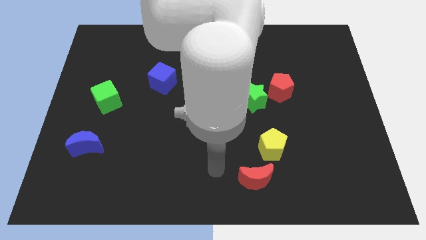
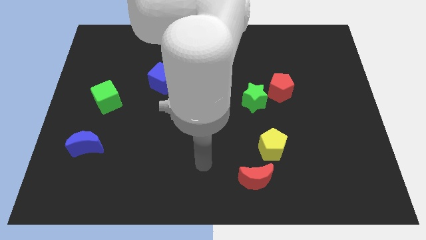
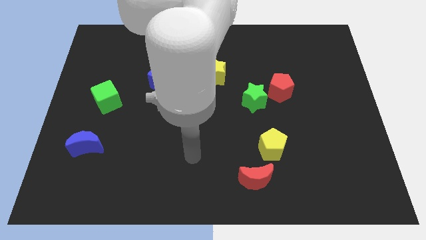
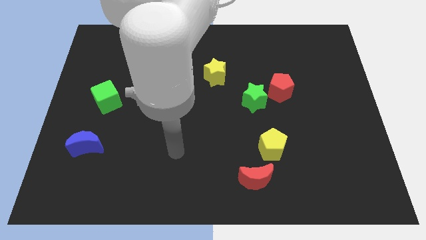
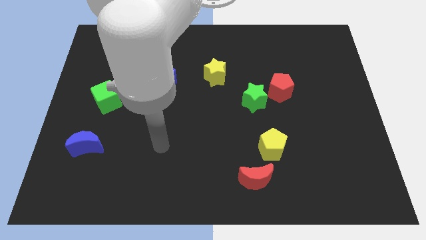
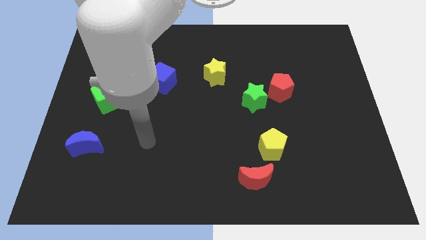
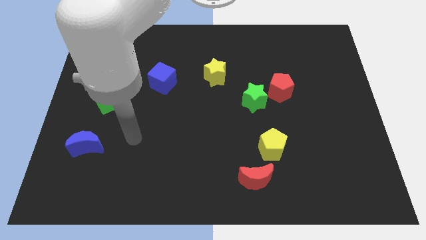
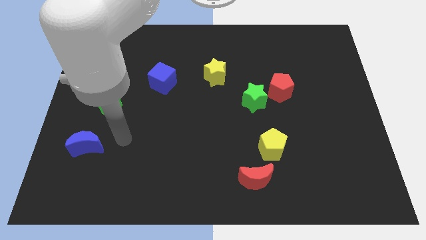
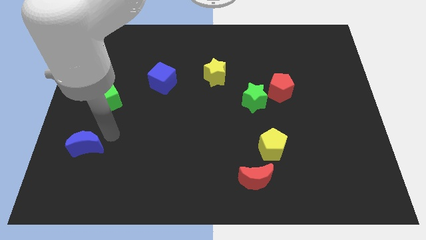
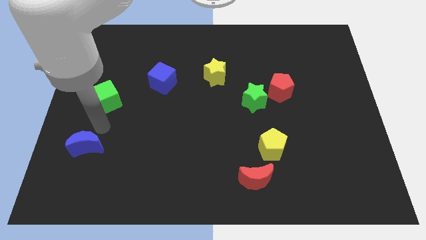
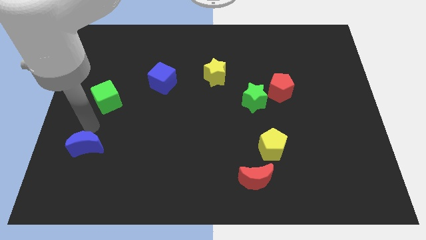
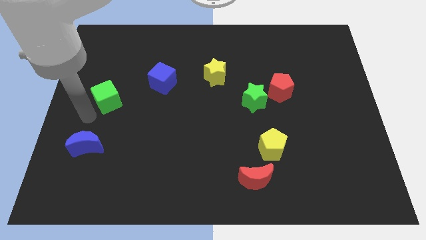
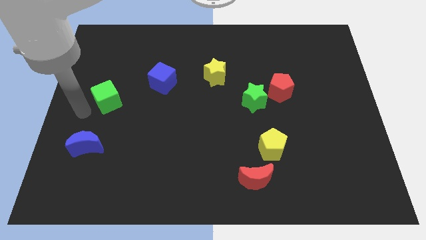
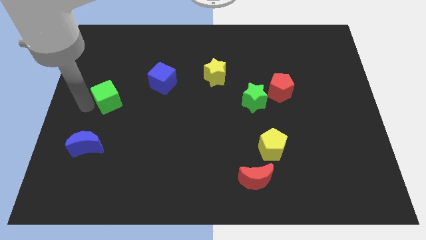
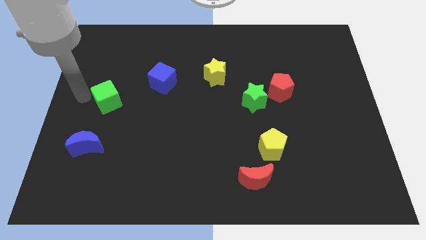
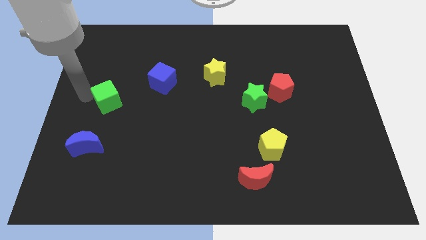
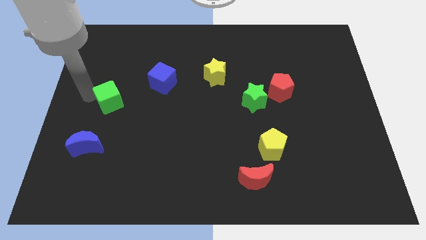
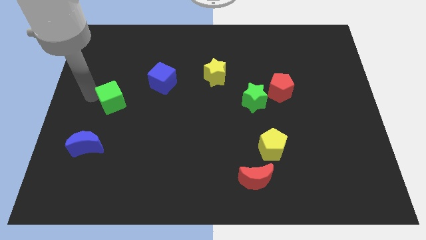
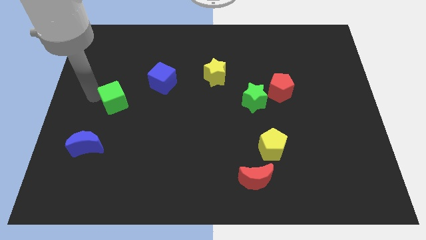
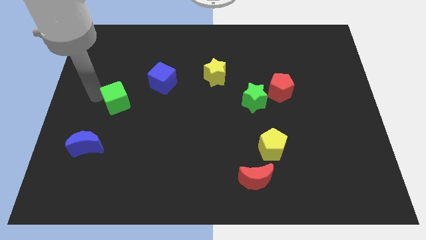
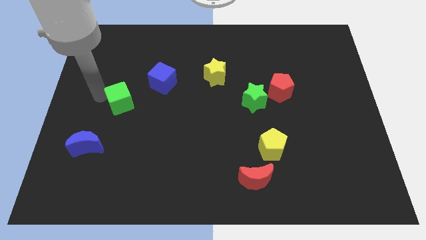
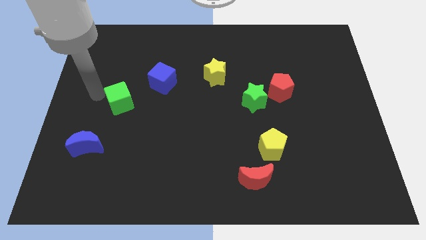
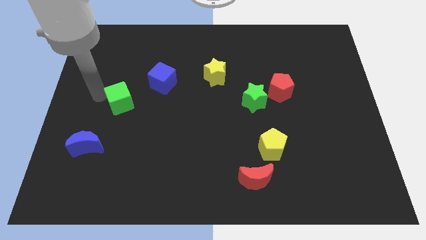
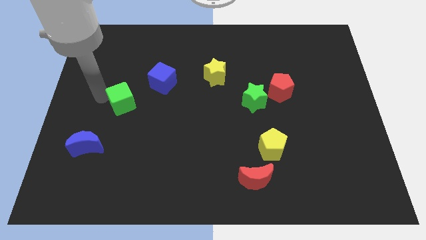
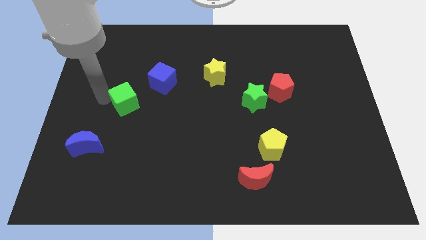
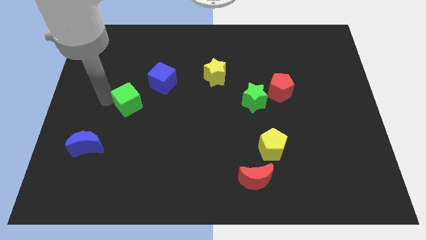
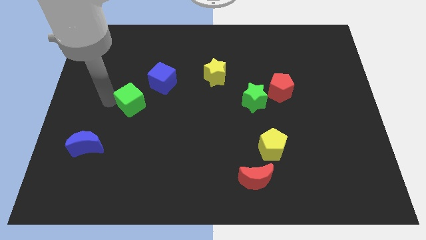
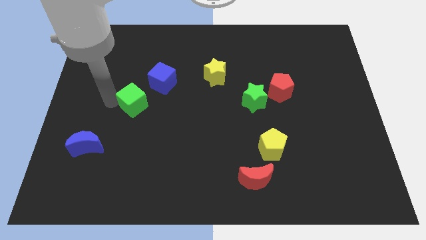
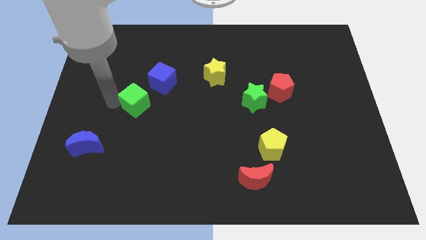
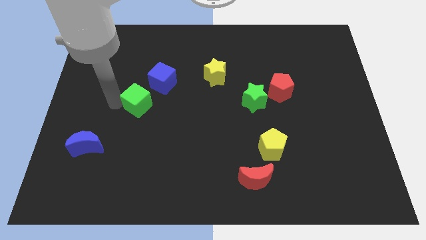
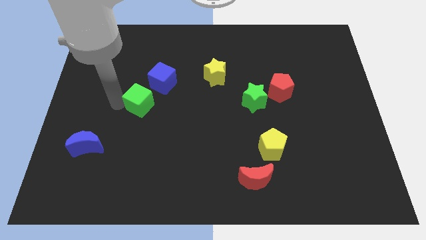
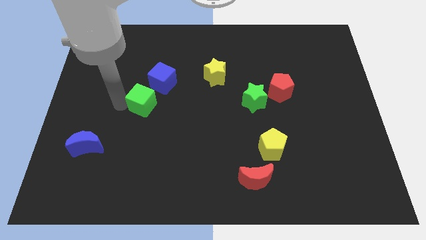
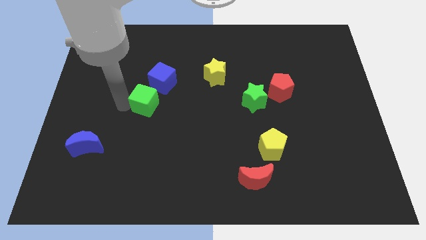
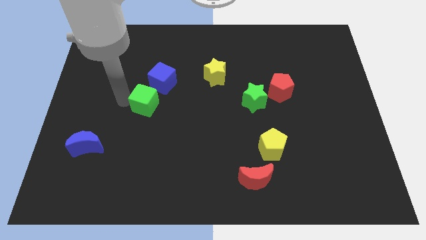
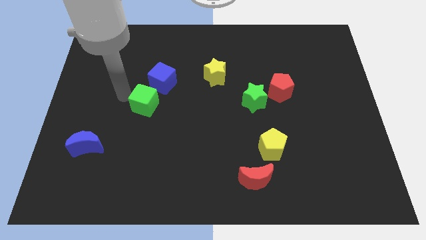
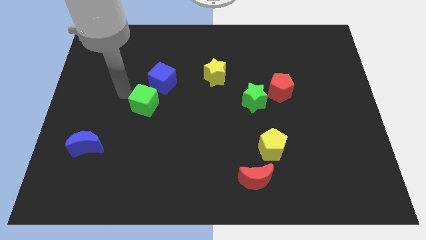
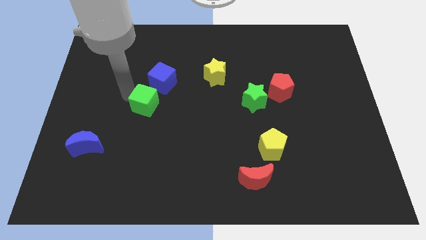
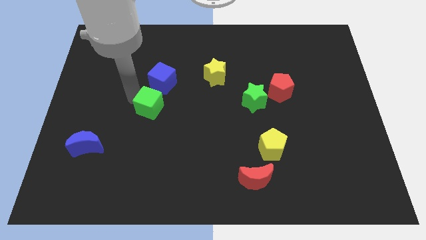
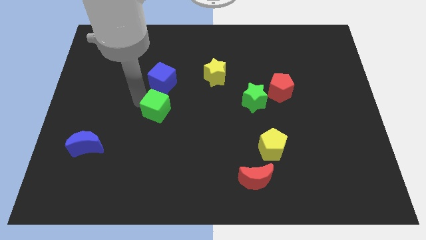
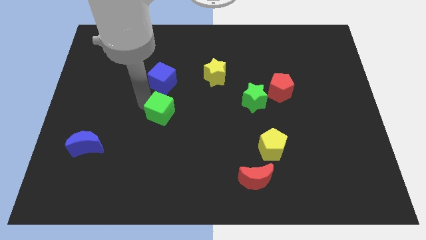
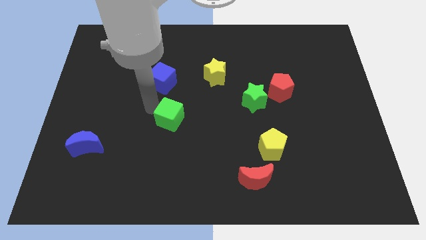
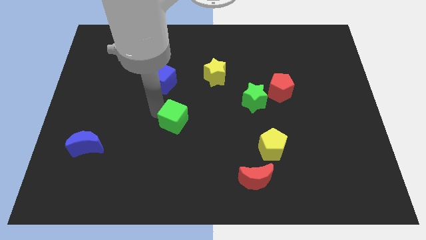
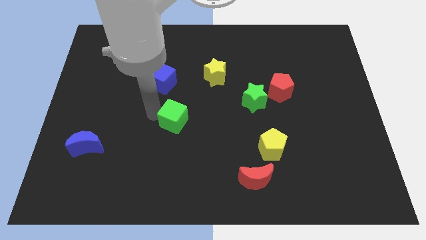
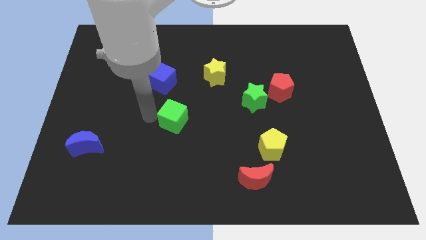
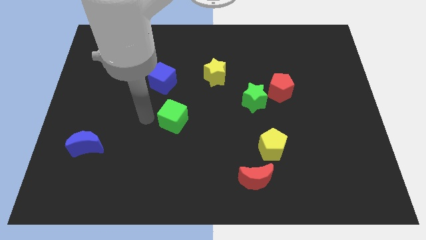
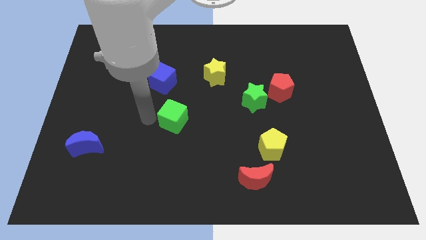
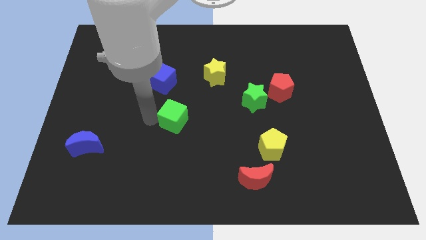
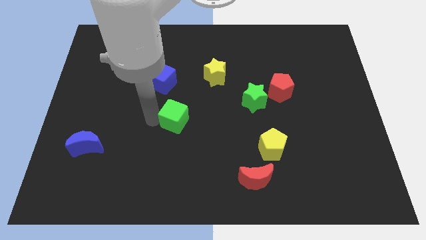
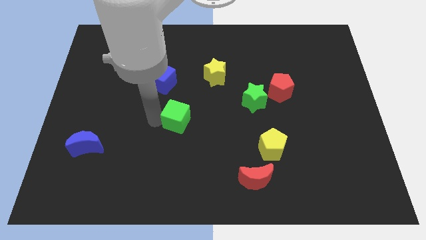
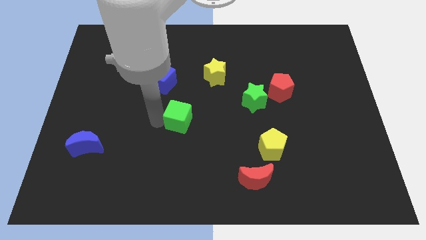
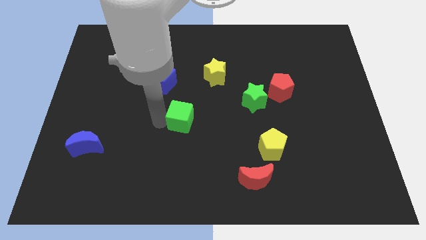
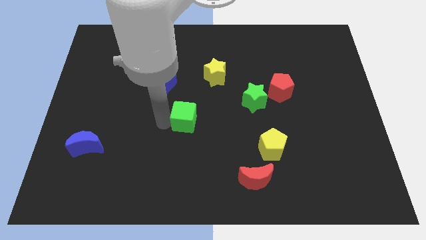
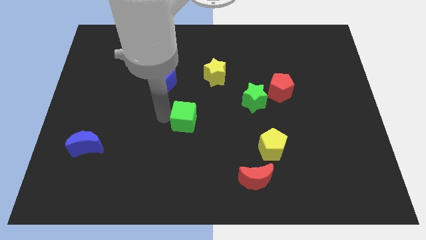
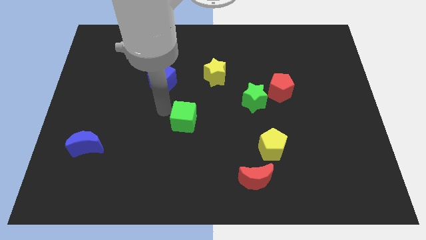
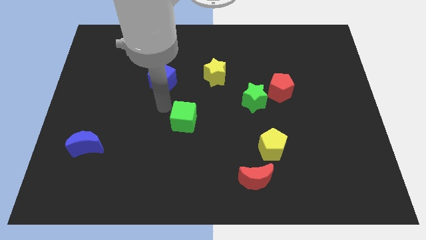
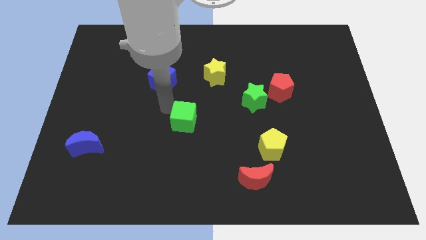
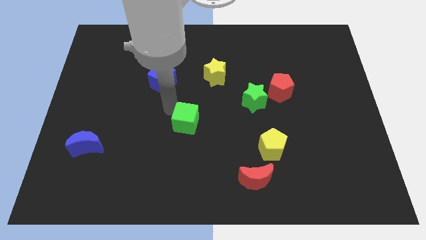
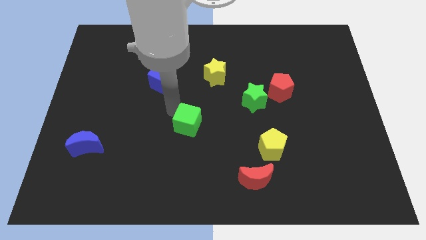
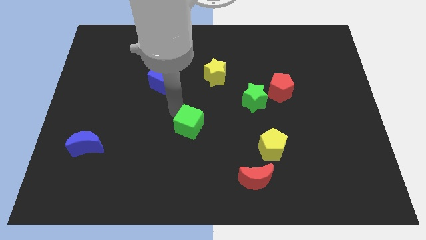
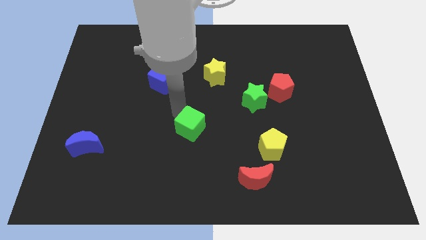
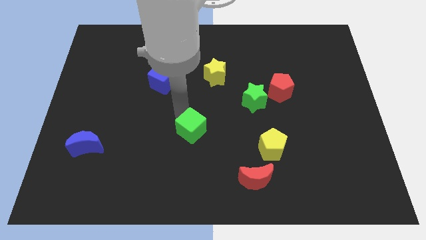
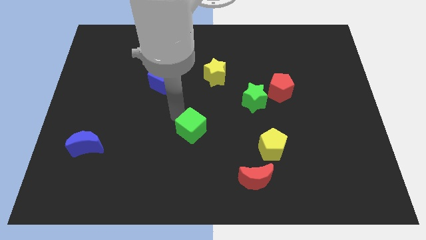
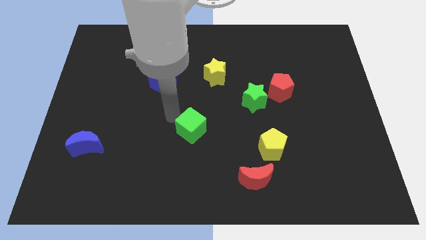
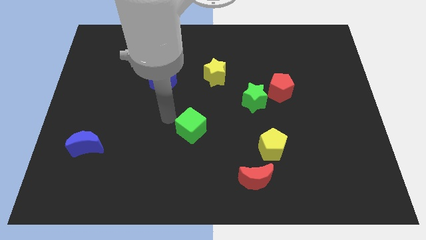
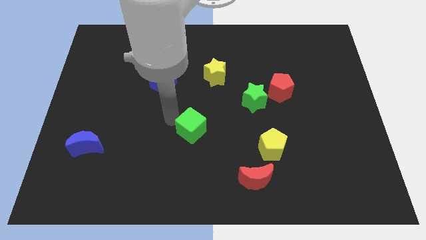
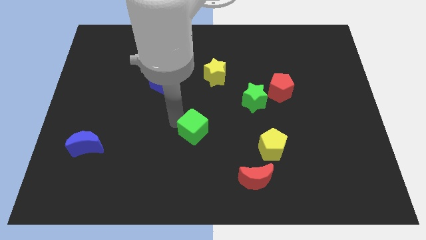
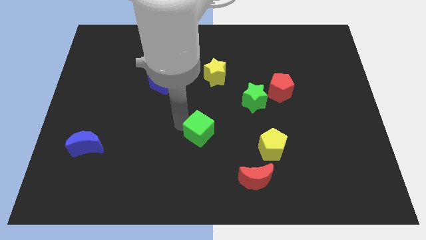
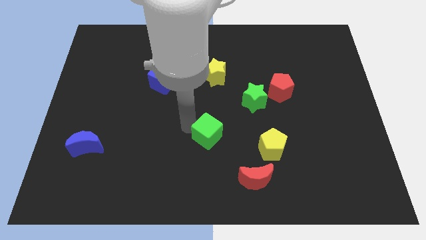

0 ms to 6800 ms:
slide the green cube to the left side of the yellow pentagon

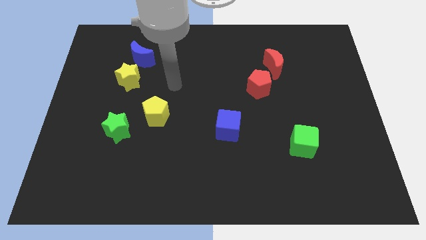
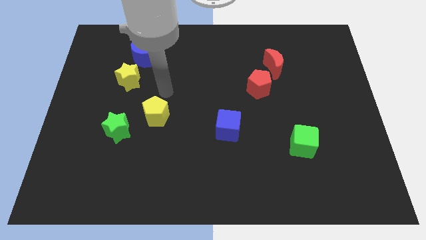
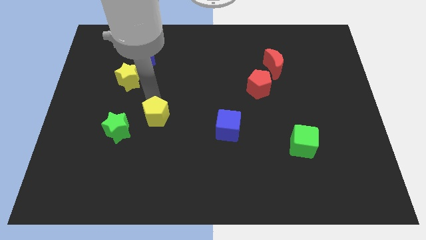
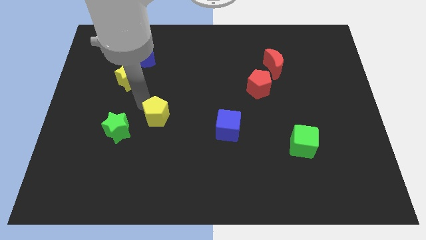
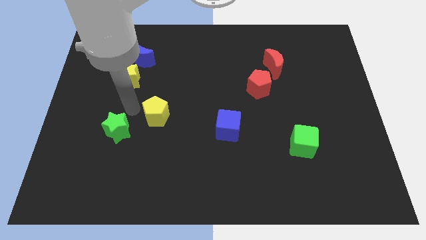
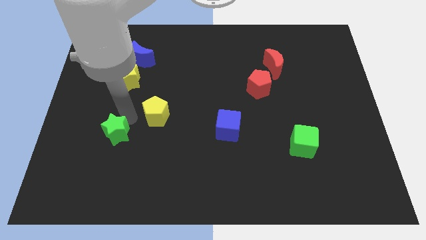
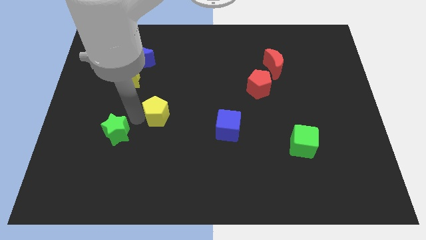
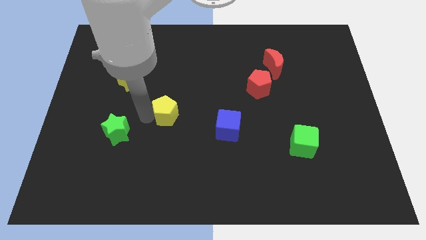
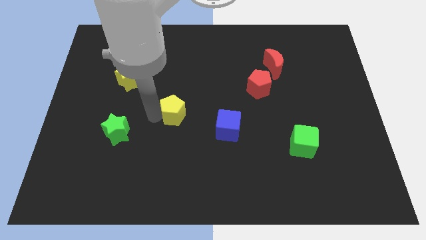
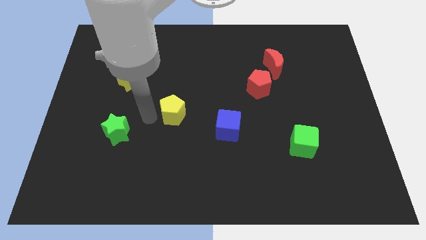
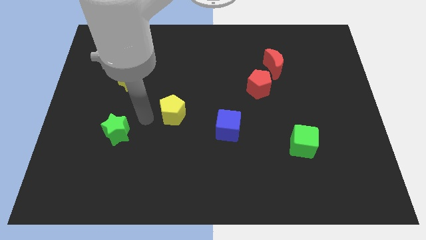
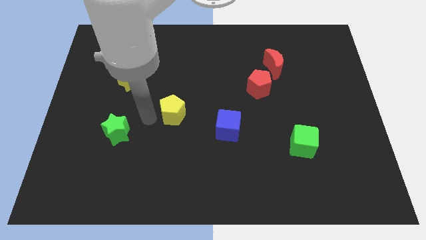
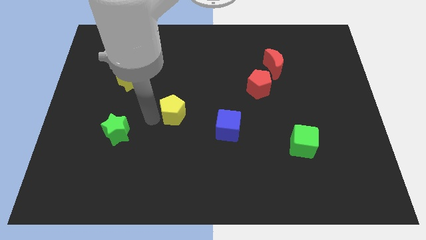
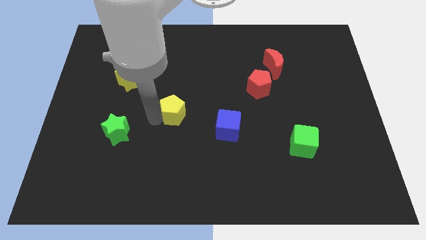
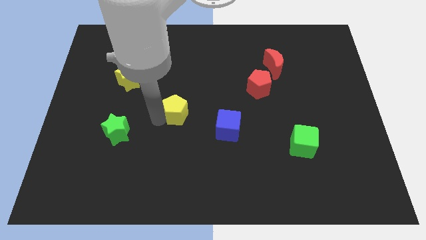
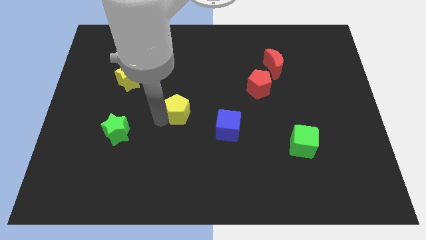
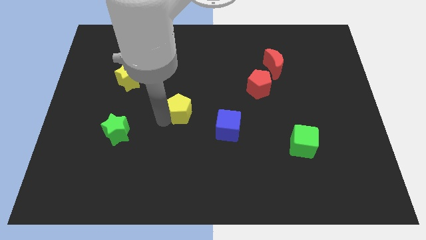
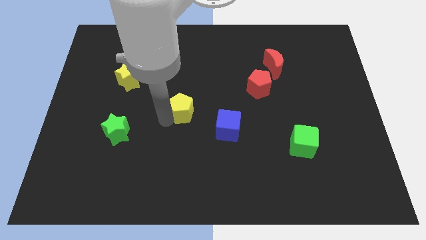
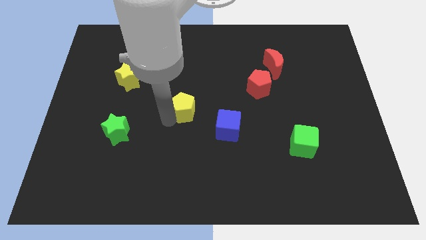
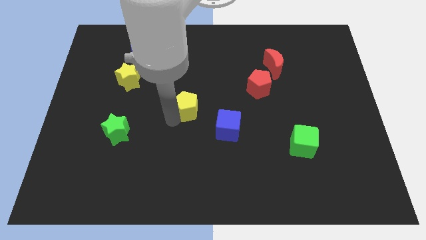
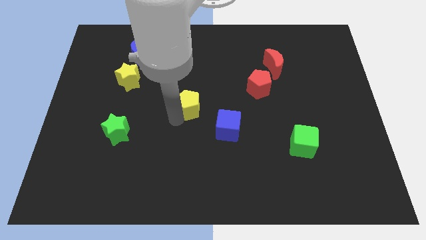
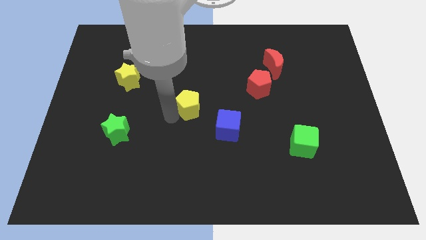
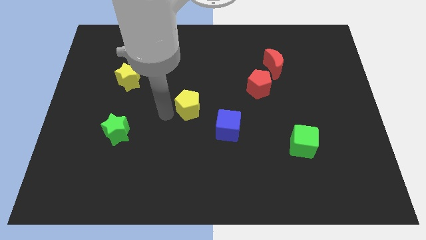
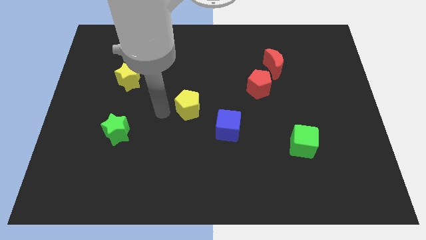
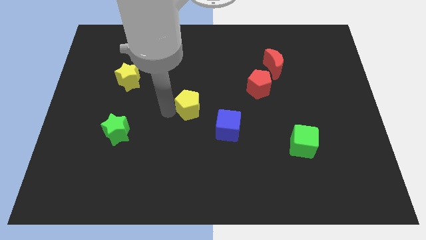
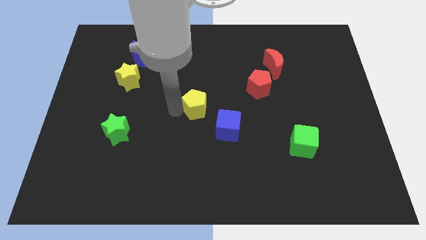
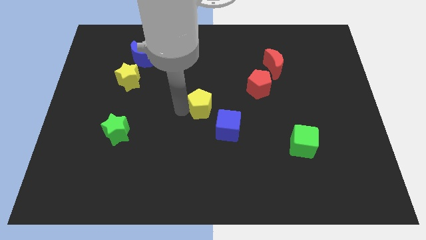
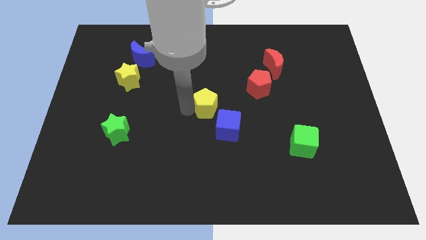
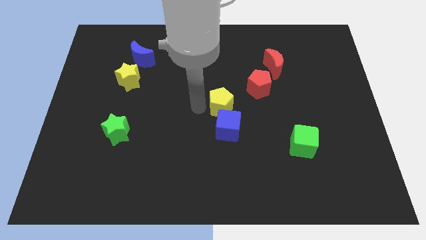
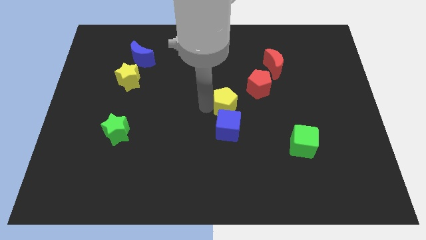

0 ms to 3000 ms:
move the yellow pentagon to the top right side of the blue cube
